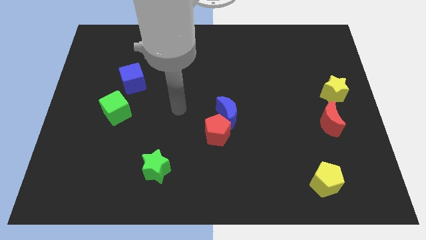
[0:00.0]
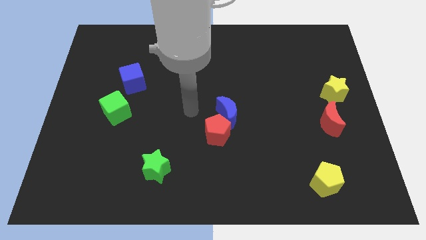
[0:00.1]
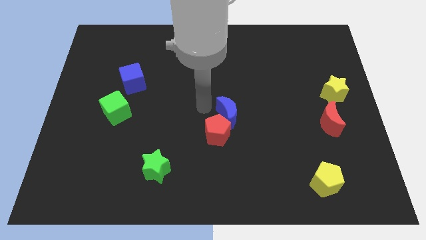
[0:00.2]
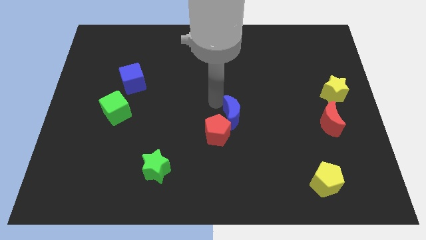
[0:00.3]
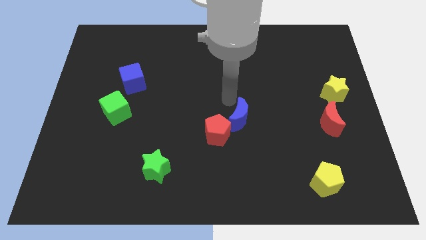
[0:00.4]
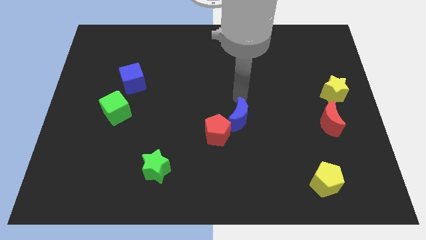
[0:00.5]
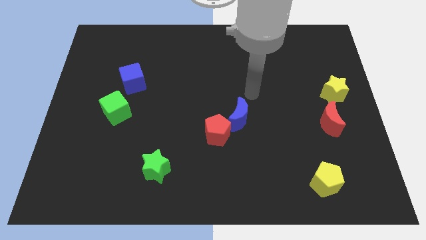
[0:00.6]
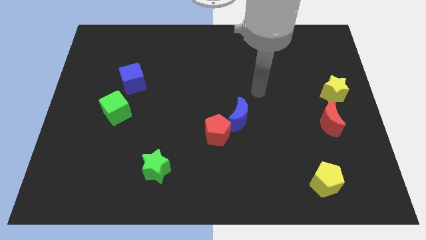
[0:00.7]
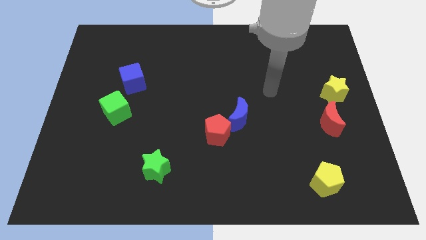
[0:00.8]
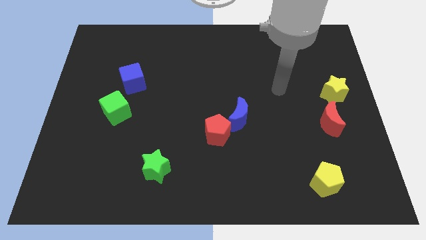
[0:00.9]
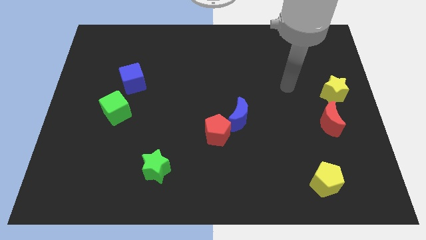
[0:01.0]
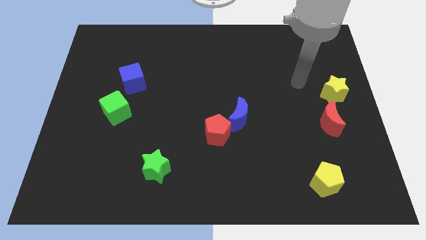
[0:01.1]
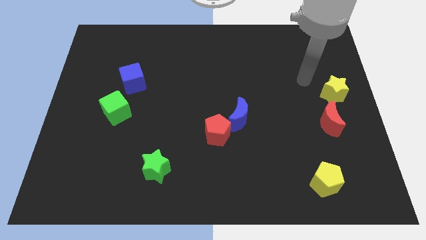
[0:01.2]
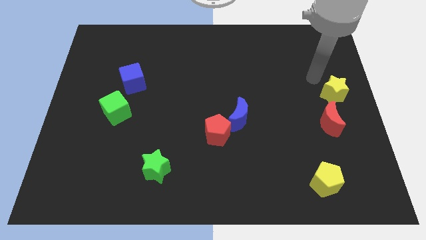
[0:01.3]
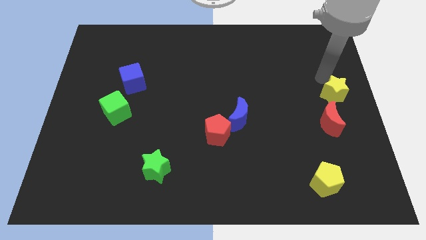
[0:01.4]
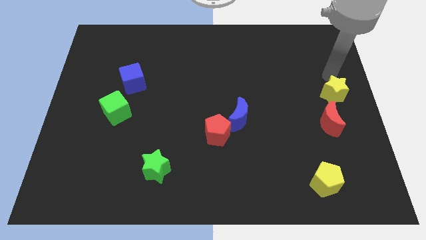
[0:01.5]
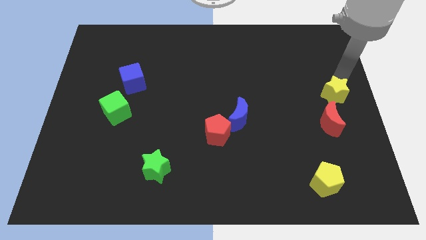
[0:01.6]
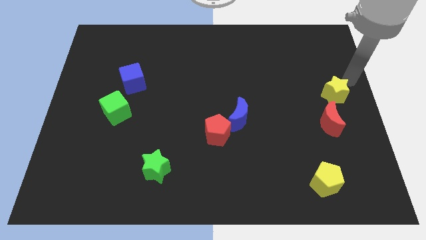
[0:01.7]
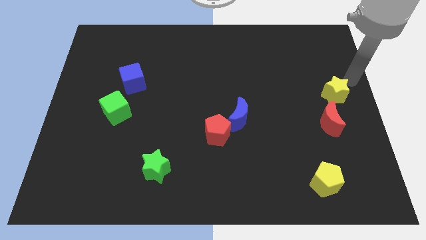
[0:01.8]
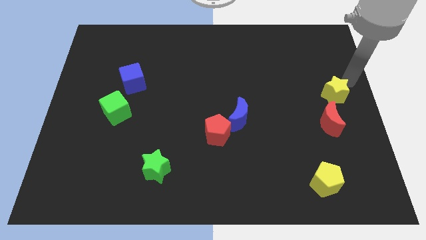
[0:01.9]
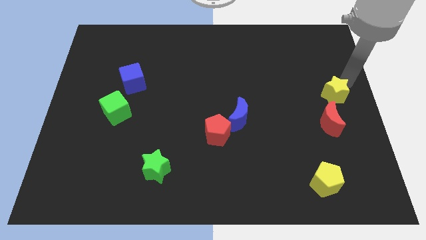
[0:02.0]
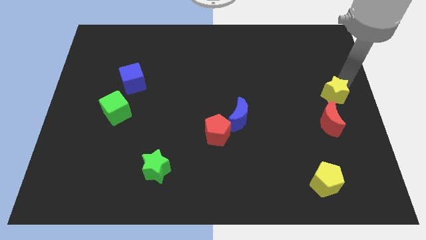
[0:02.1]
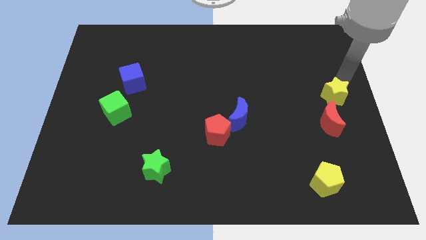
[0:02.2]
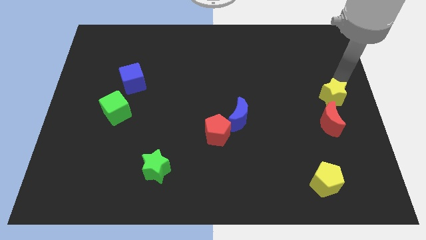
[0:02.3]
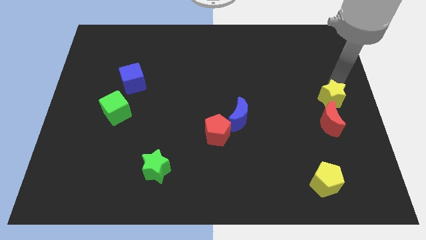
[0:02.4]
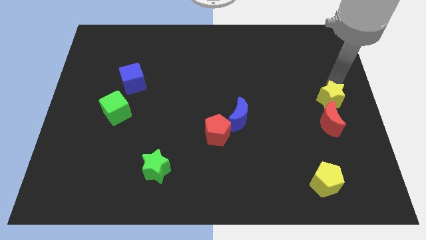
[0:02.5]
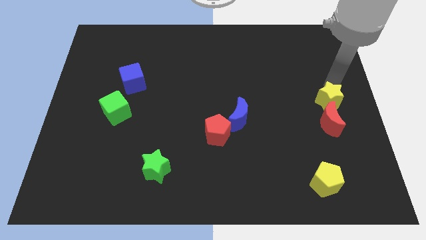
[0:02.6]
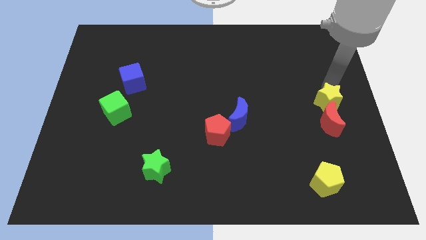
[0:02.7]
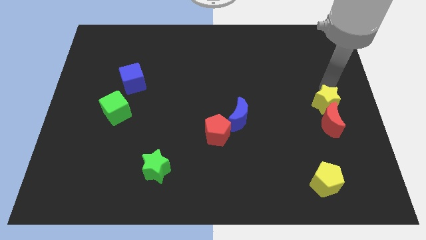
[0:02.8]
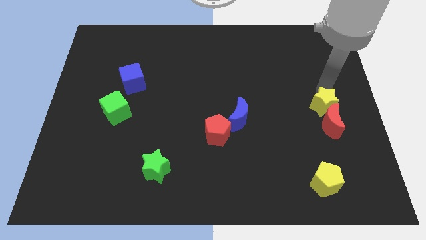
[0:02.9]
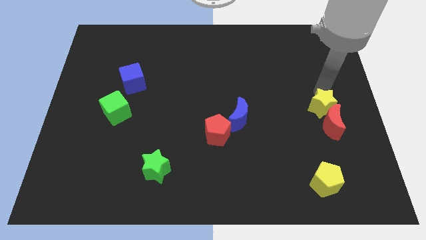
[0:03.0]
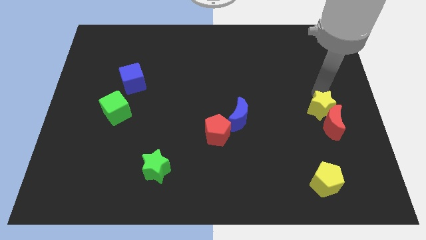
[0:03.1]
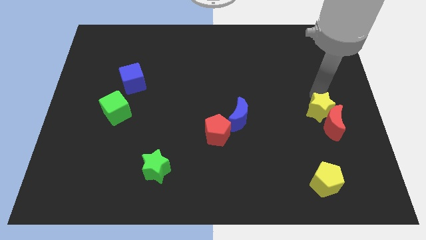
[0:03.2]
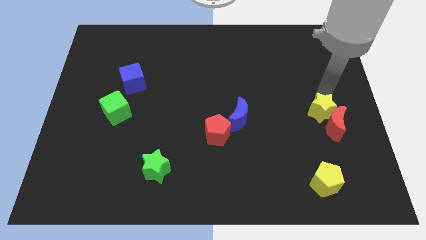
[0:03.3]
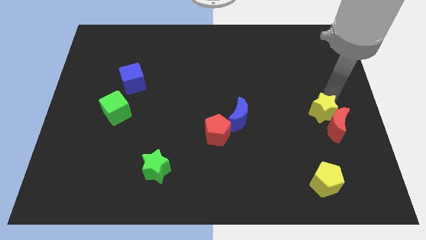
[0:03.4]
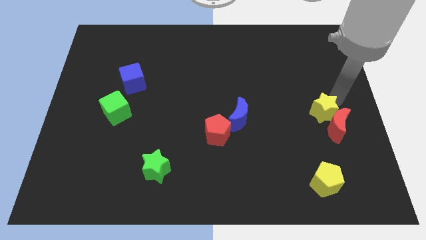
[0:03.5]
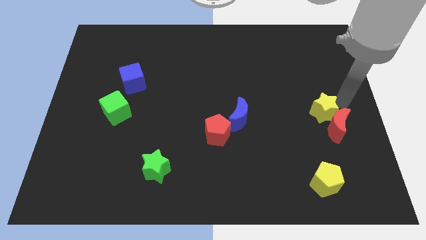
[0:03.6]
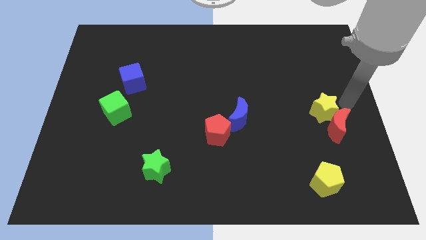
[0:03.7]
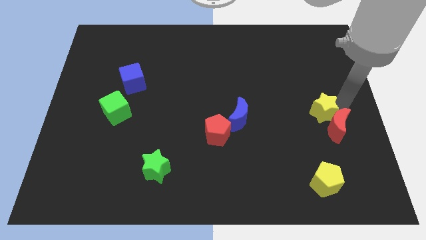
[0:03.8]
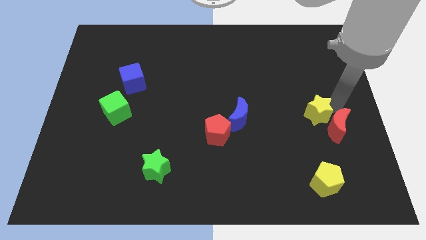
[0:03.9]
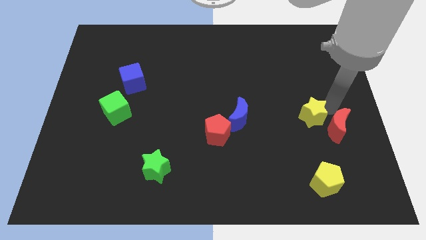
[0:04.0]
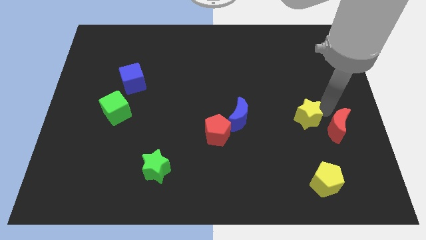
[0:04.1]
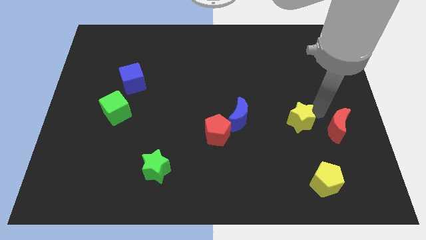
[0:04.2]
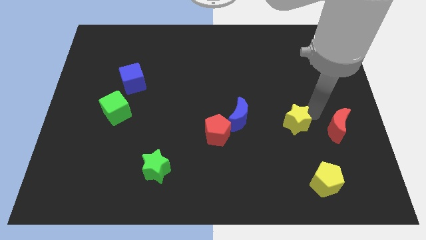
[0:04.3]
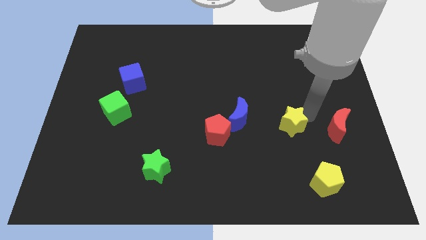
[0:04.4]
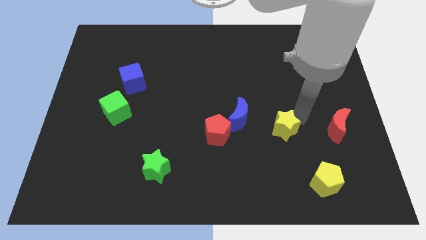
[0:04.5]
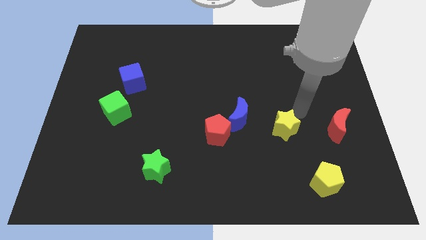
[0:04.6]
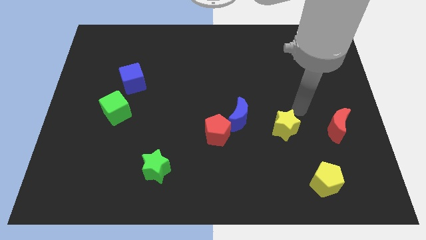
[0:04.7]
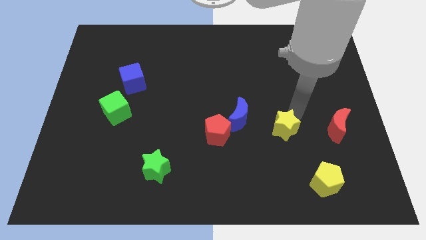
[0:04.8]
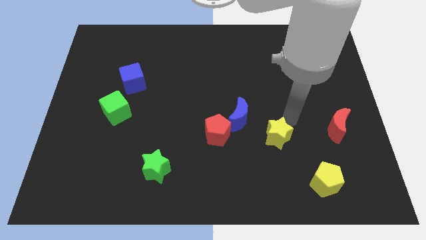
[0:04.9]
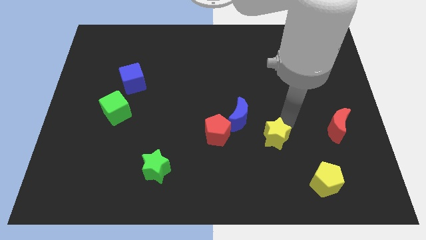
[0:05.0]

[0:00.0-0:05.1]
push the yellow star downwards and then to the left

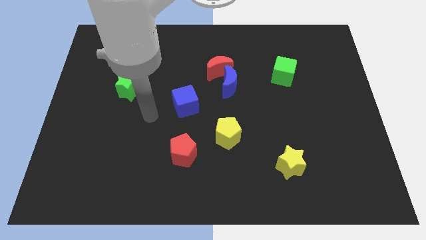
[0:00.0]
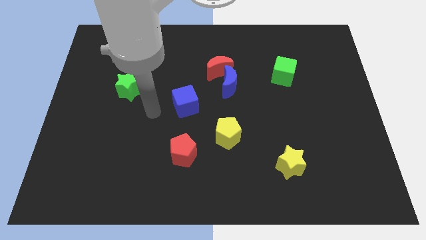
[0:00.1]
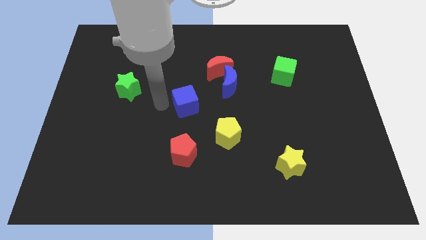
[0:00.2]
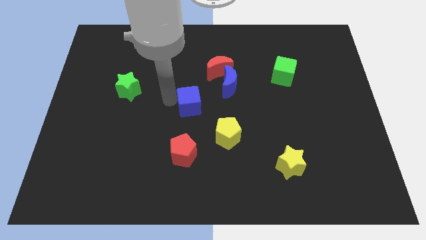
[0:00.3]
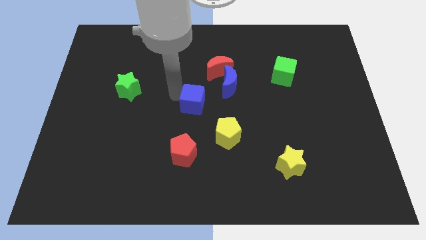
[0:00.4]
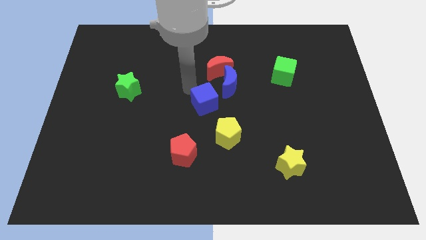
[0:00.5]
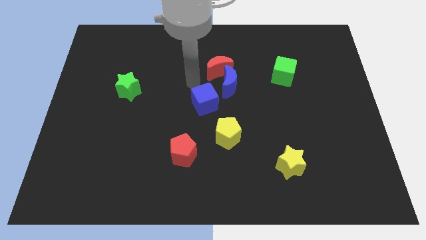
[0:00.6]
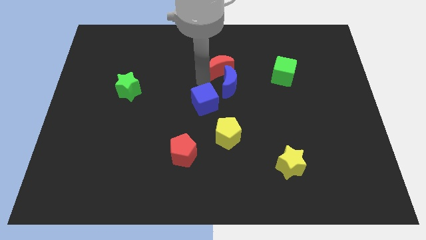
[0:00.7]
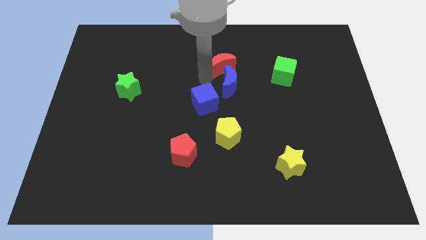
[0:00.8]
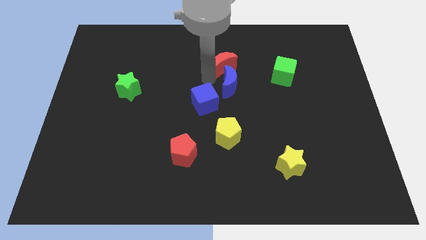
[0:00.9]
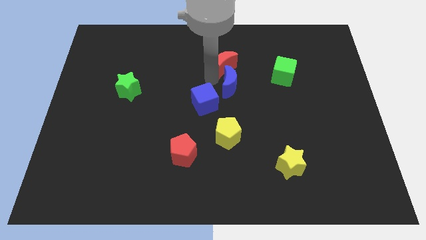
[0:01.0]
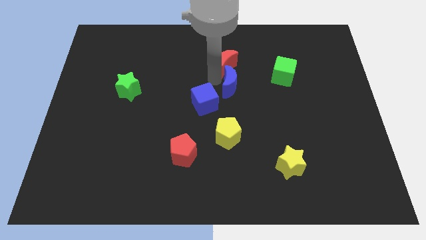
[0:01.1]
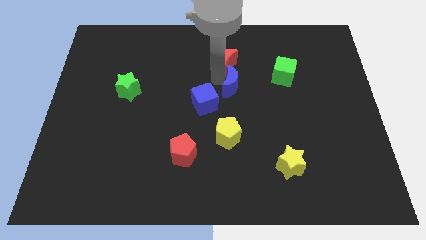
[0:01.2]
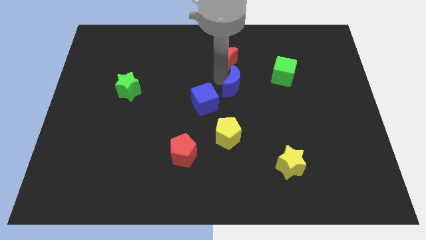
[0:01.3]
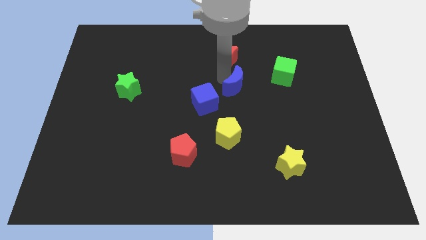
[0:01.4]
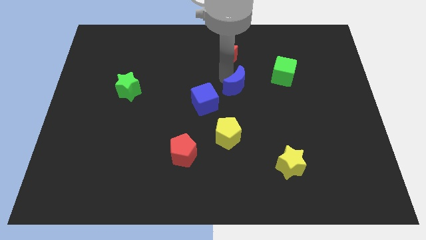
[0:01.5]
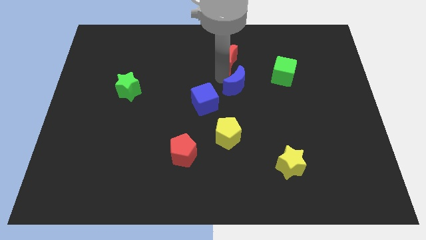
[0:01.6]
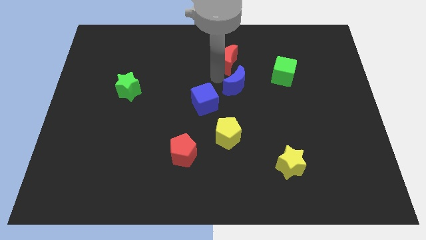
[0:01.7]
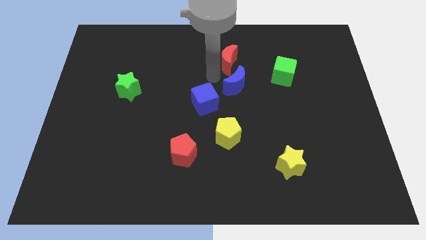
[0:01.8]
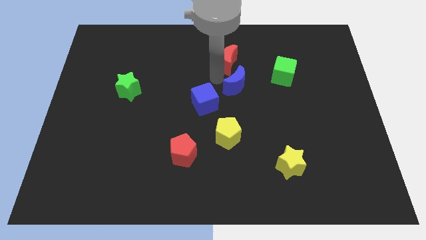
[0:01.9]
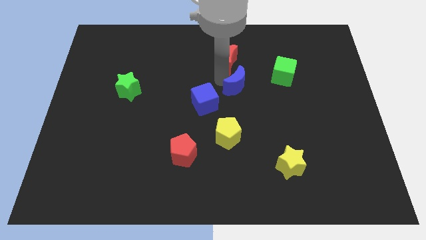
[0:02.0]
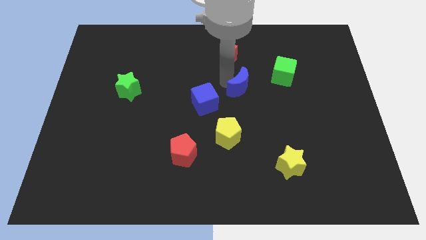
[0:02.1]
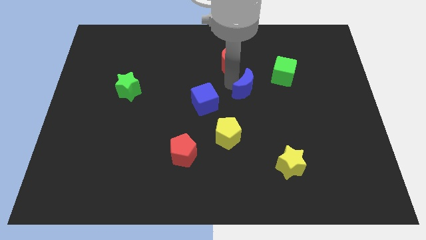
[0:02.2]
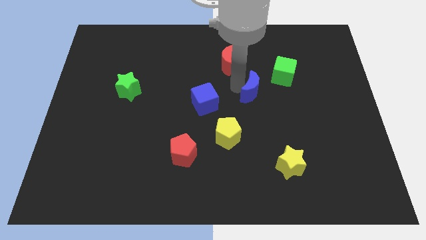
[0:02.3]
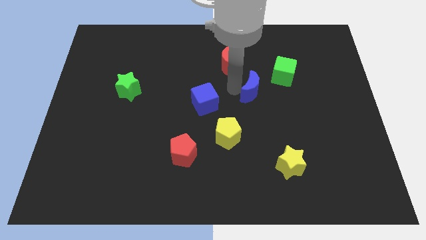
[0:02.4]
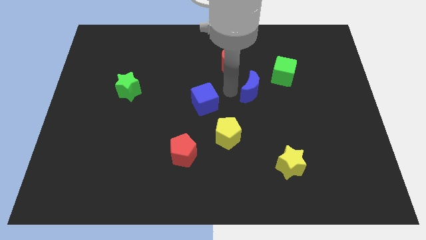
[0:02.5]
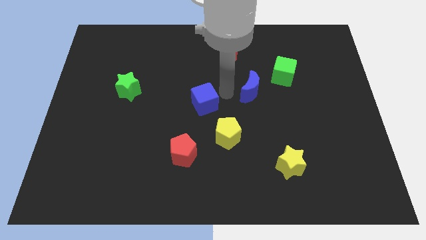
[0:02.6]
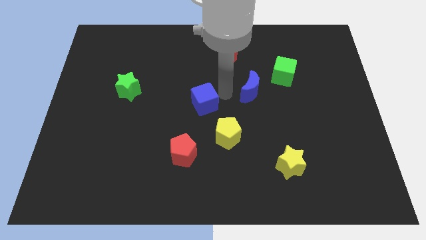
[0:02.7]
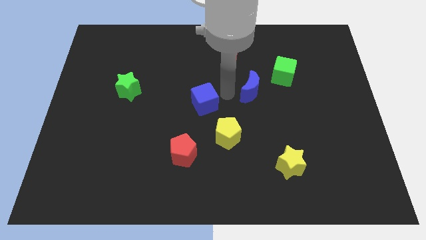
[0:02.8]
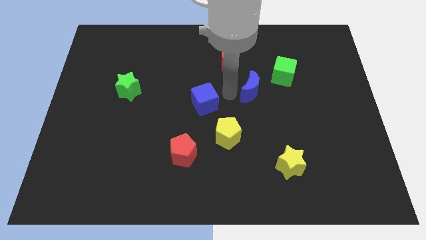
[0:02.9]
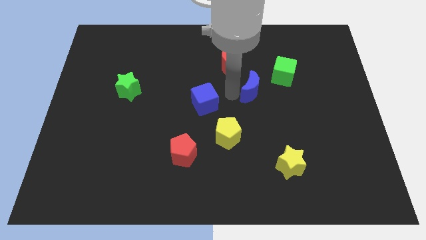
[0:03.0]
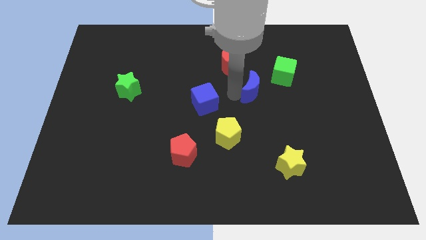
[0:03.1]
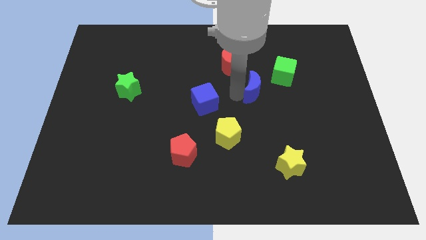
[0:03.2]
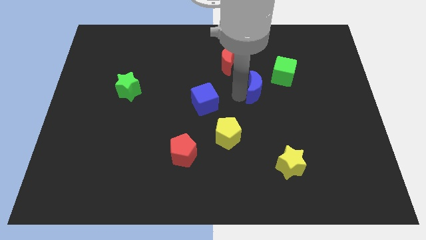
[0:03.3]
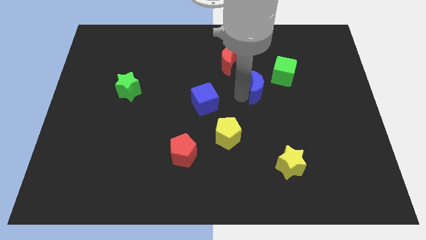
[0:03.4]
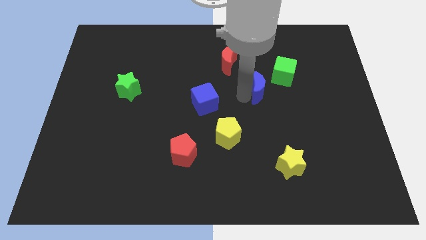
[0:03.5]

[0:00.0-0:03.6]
slightly slide the blue moon right
